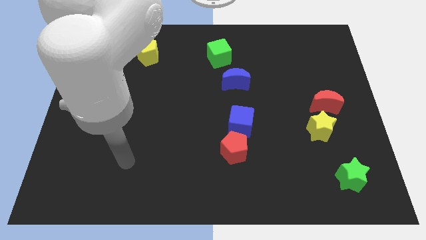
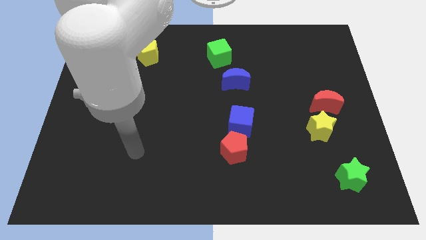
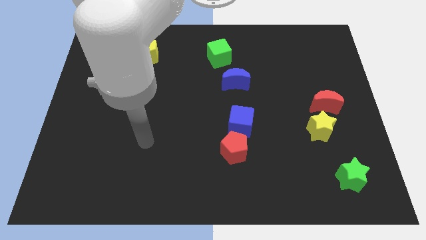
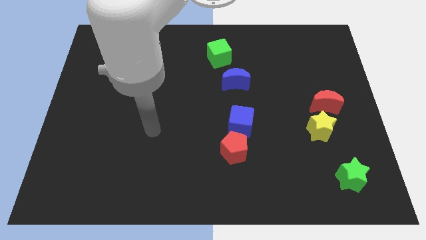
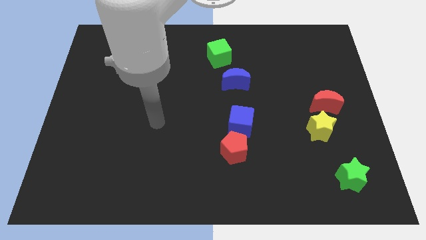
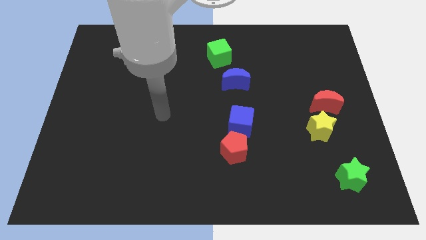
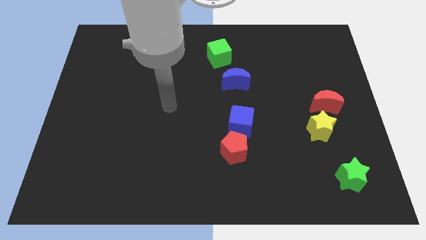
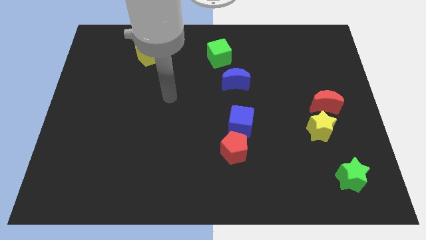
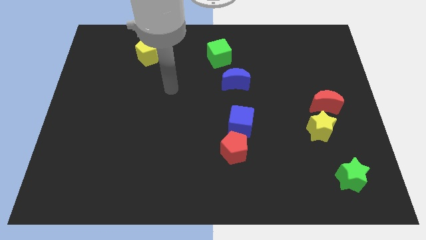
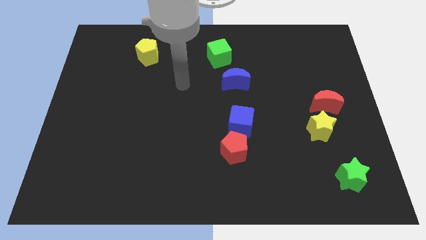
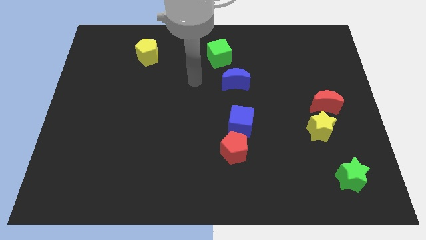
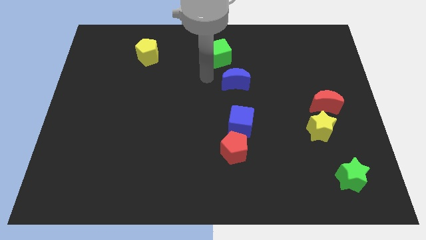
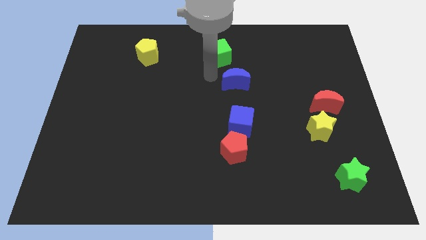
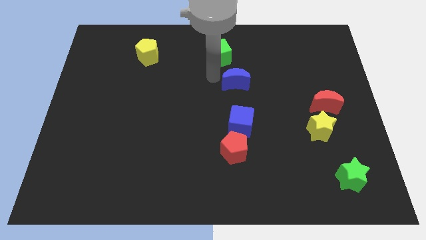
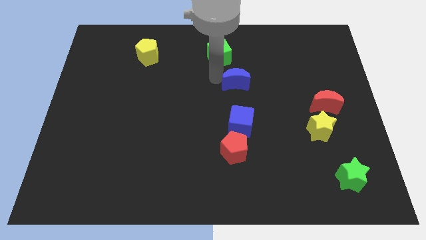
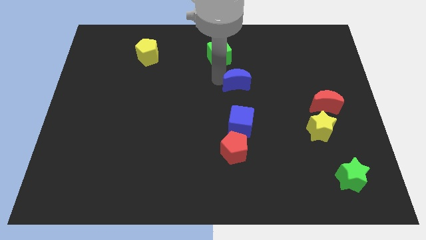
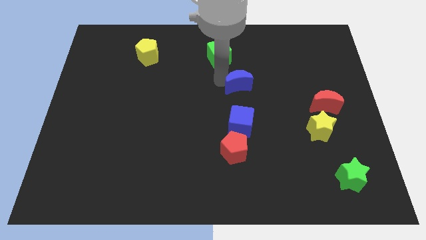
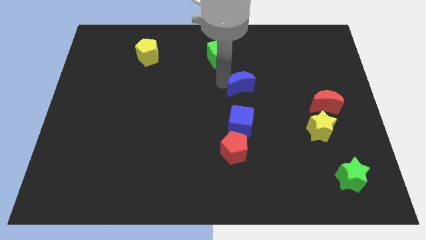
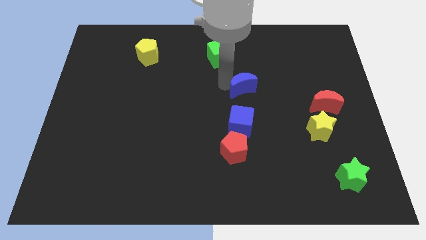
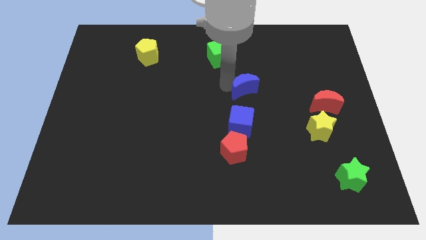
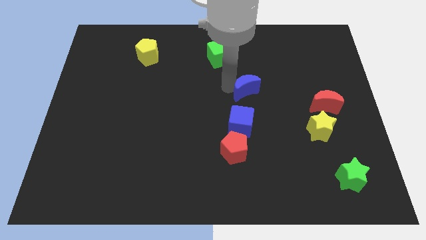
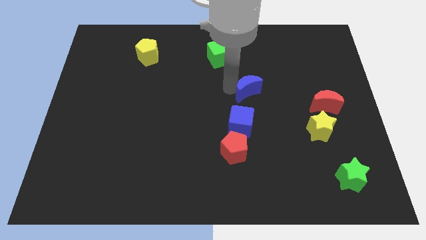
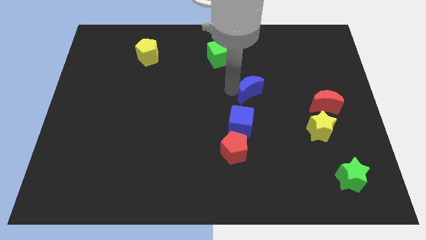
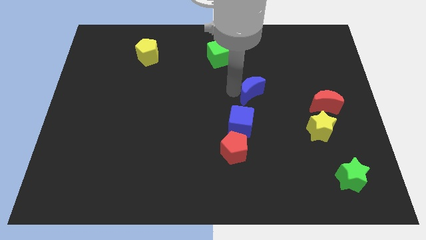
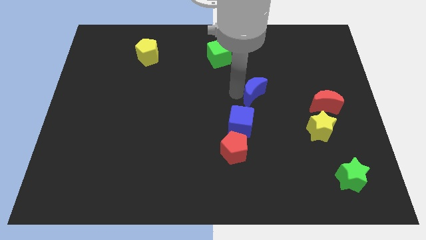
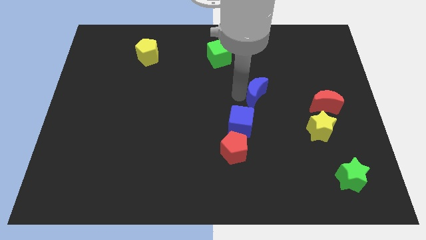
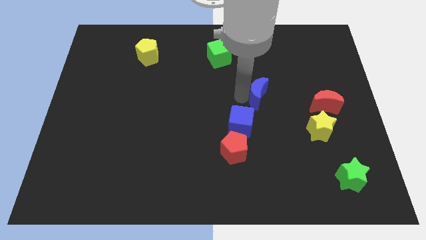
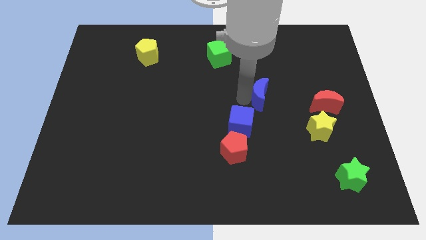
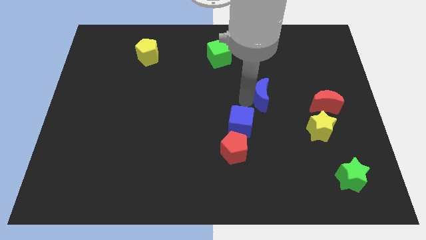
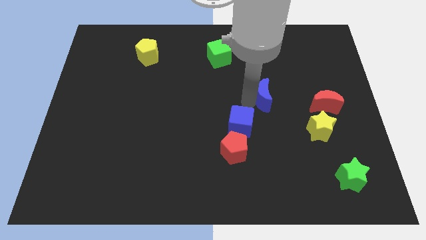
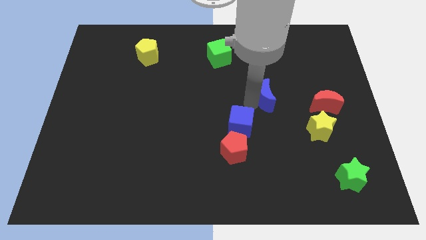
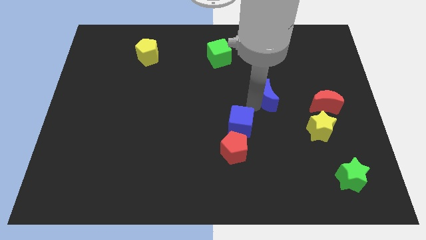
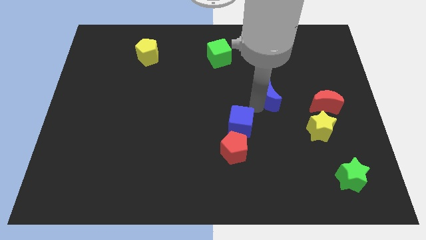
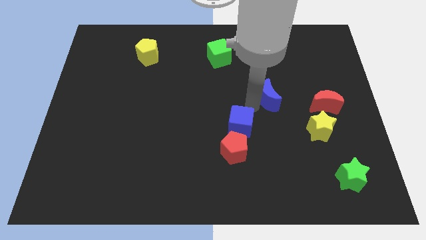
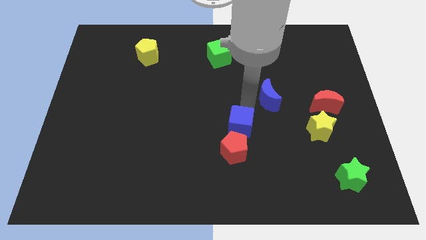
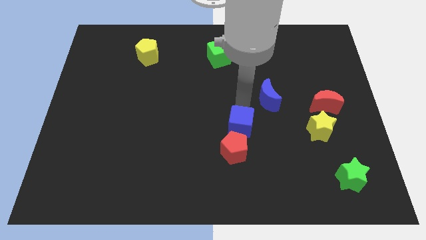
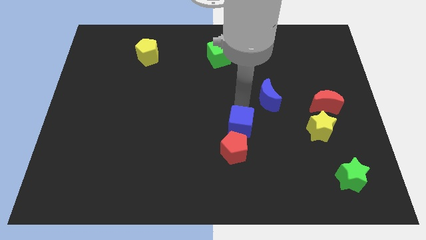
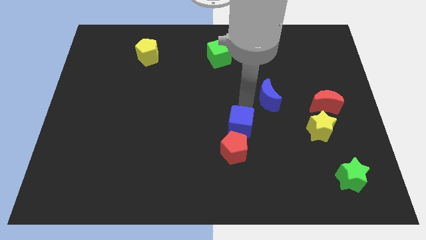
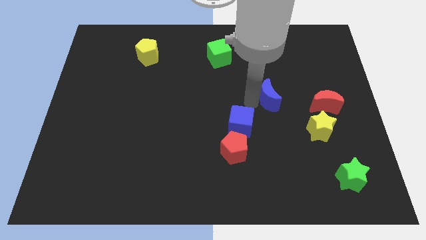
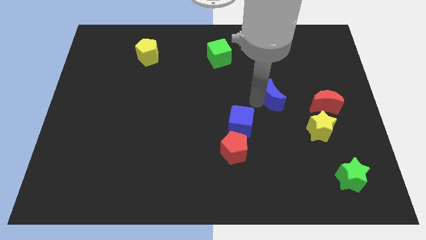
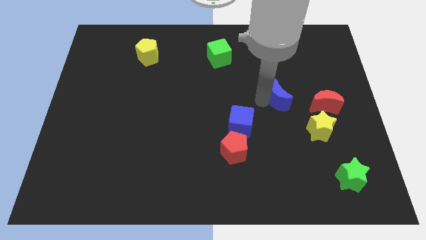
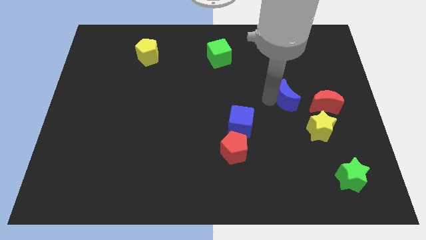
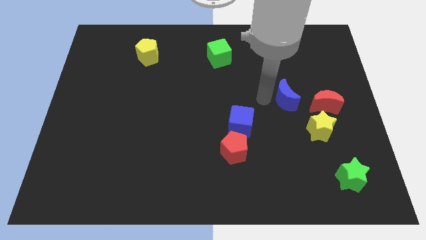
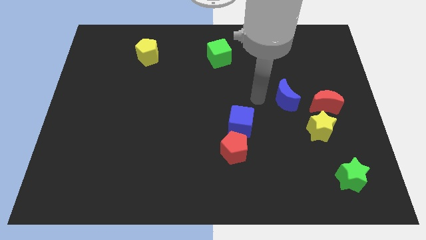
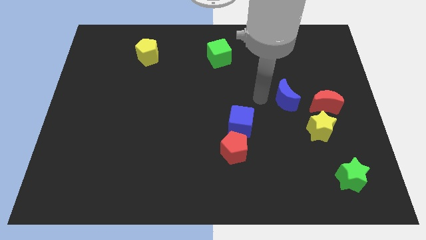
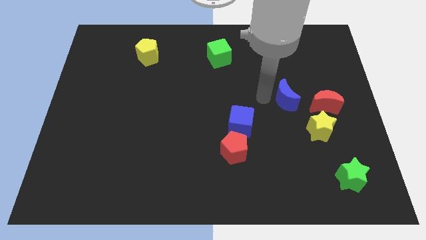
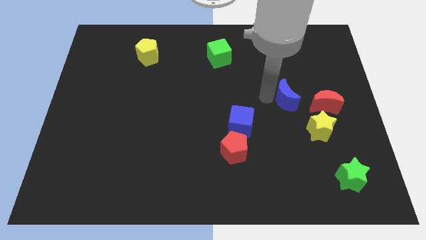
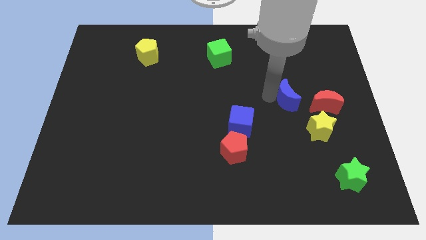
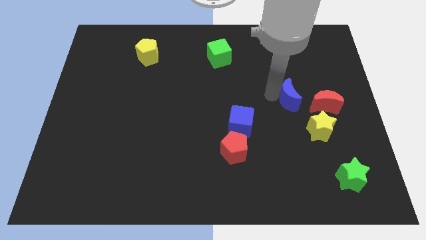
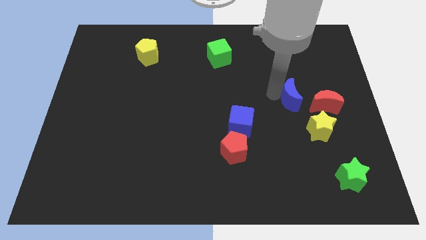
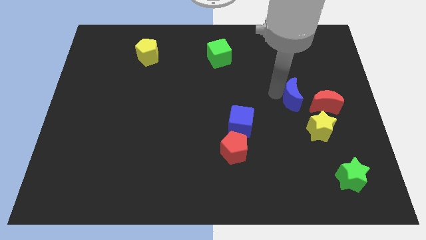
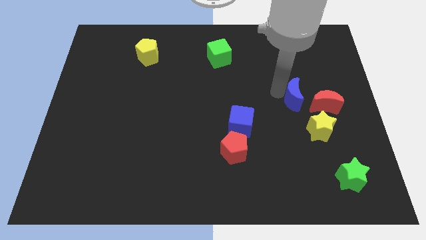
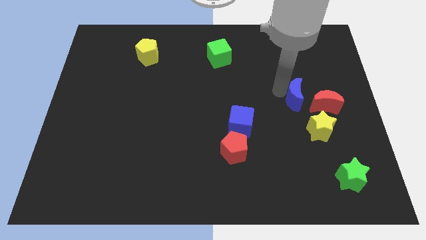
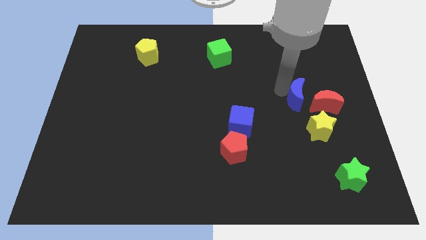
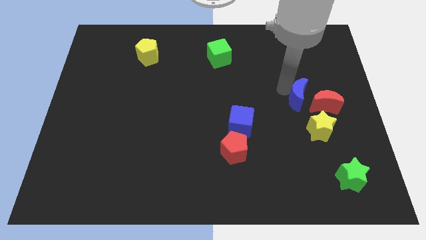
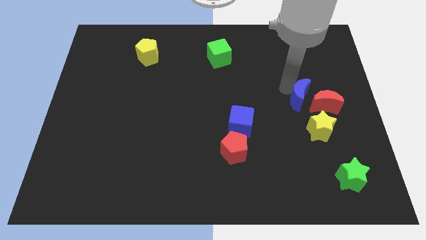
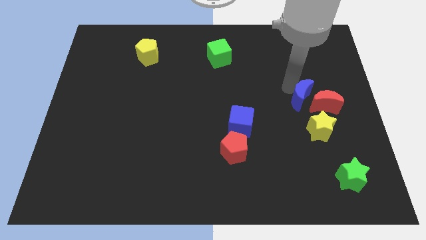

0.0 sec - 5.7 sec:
move the blue moon close to the red moon

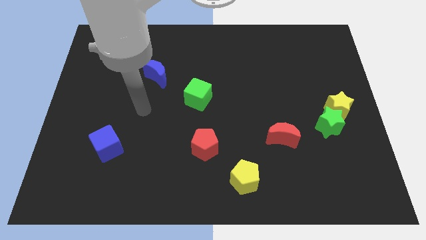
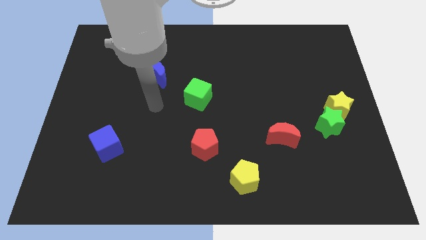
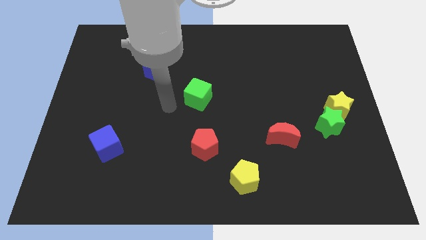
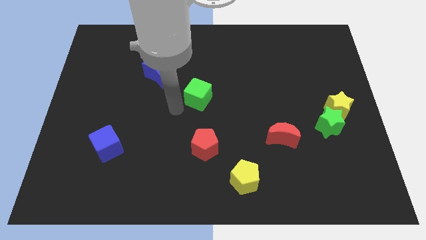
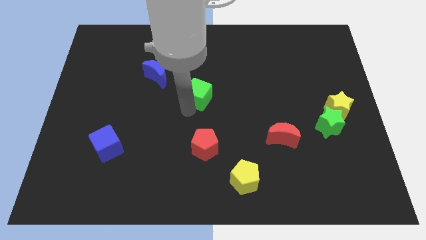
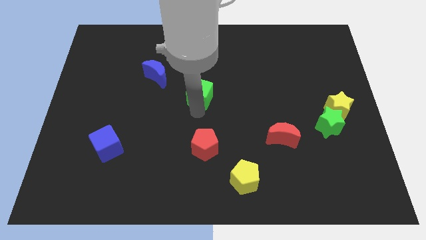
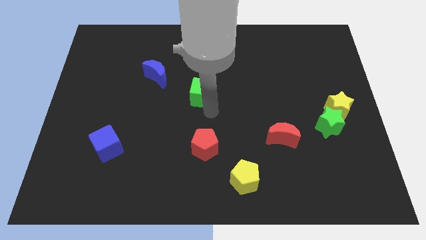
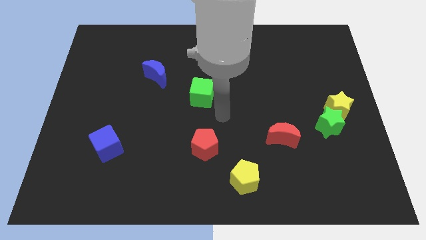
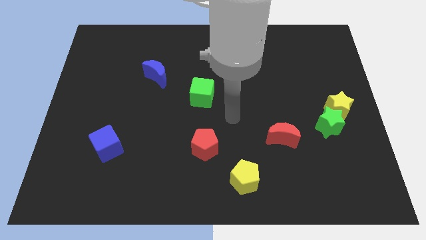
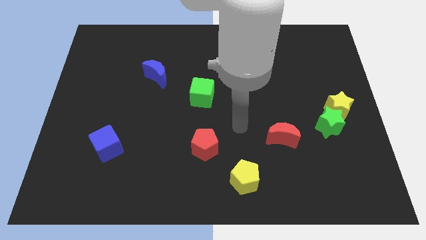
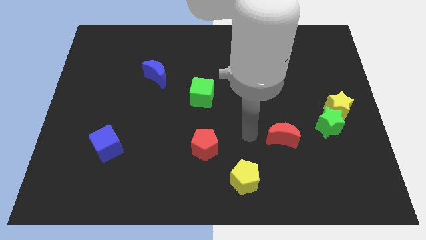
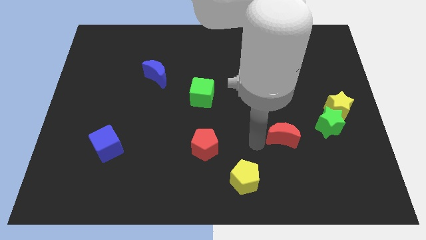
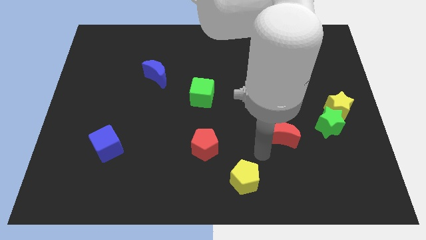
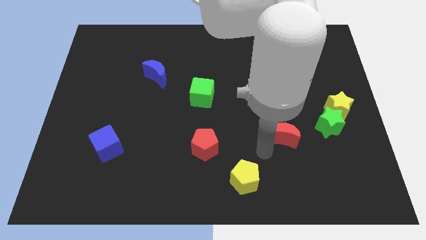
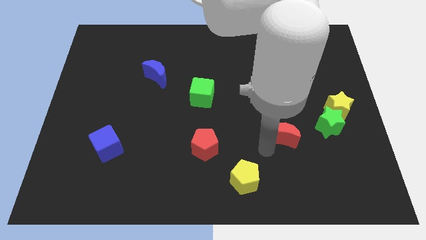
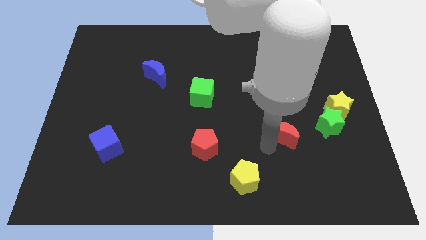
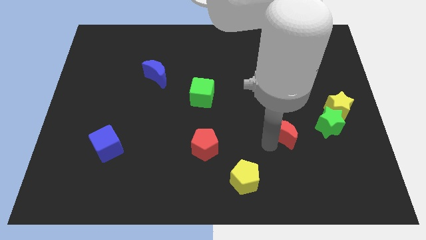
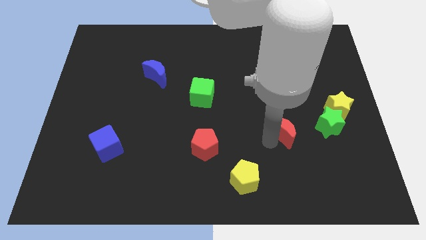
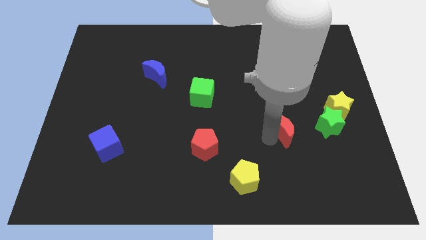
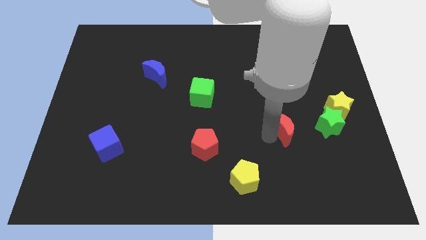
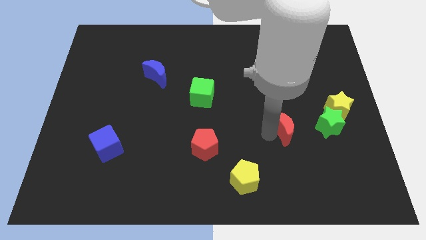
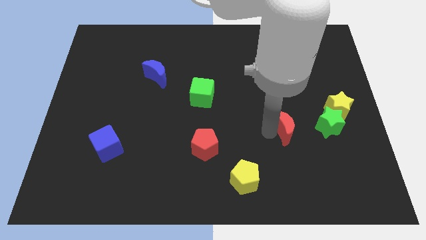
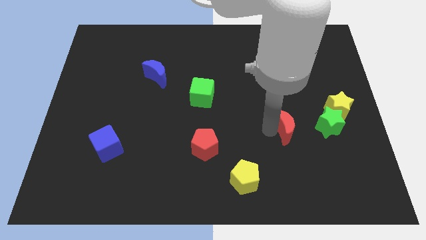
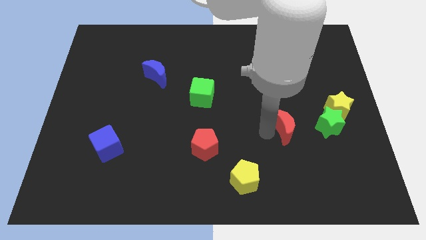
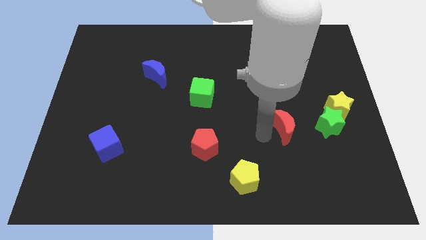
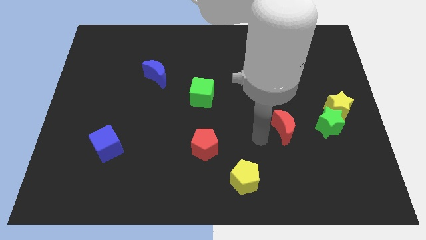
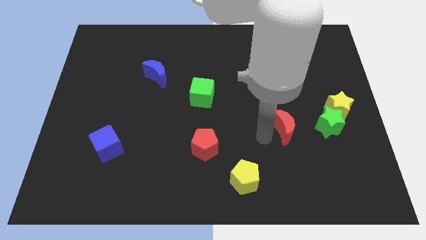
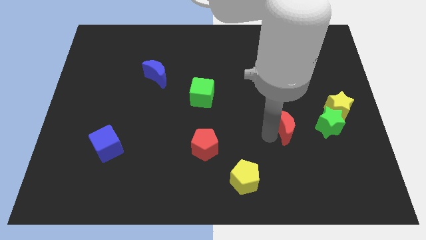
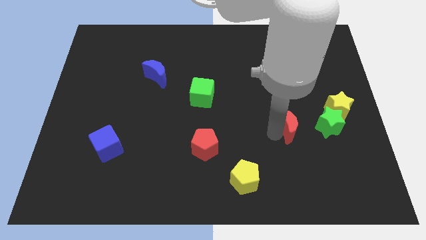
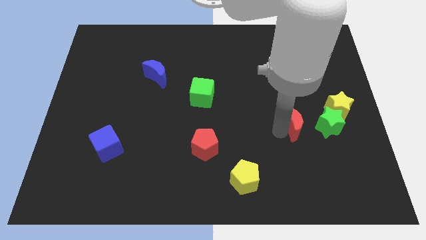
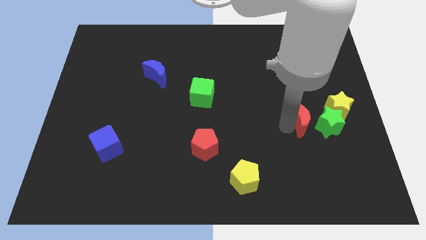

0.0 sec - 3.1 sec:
slide the red moon close to the green star
